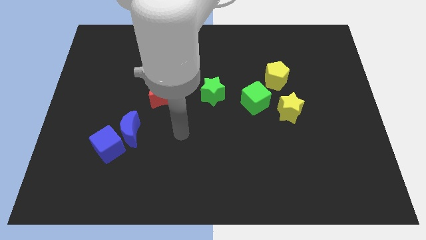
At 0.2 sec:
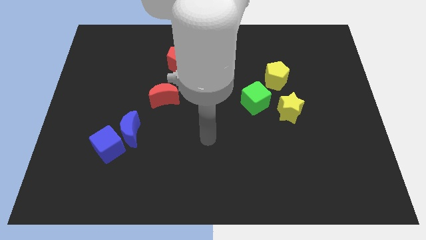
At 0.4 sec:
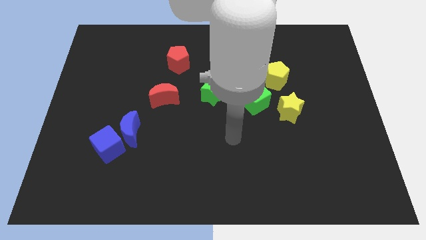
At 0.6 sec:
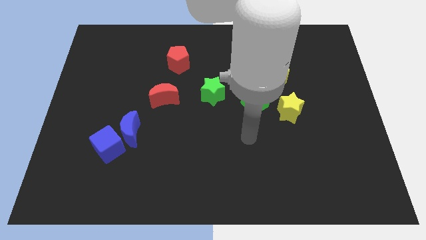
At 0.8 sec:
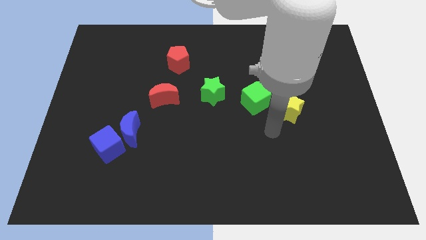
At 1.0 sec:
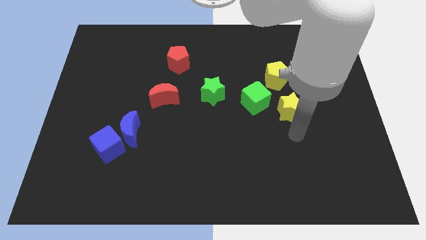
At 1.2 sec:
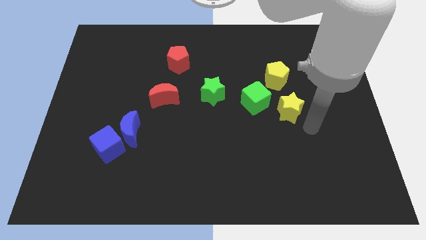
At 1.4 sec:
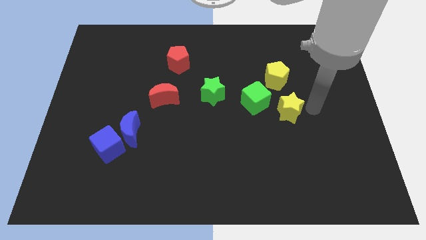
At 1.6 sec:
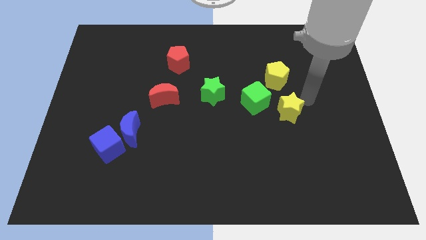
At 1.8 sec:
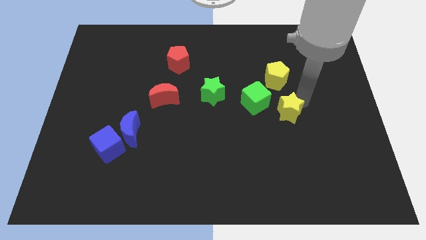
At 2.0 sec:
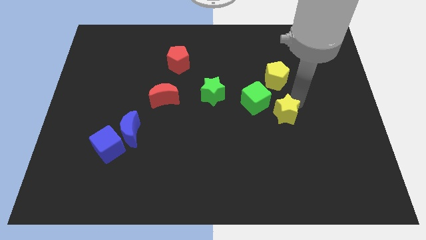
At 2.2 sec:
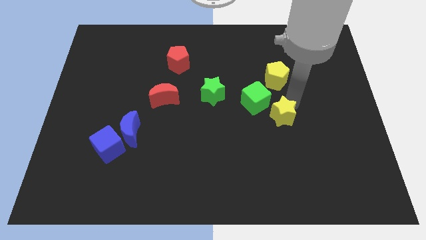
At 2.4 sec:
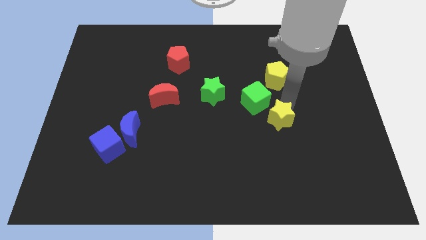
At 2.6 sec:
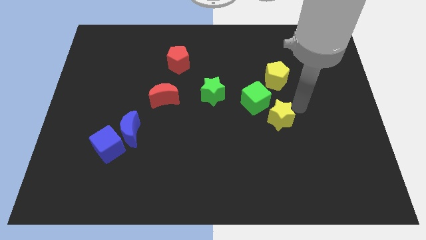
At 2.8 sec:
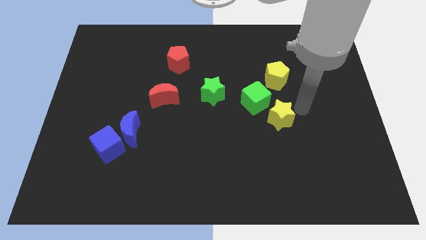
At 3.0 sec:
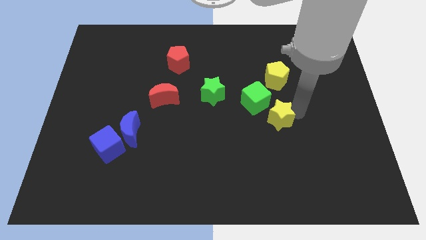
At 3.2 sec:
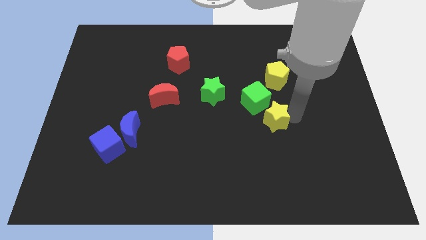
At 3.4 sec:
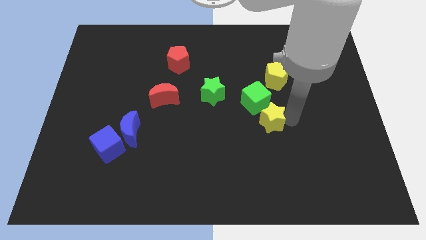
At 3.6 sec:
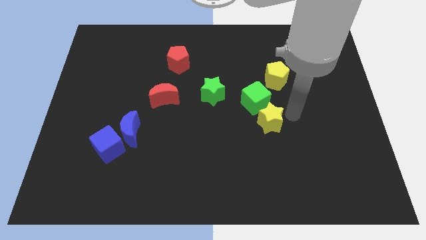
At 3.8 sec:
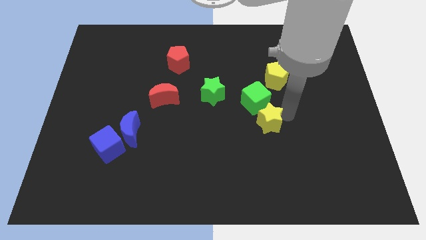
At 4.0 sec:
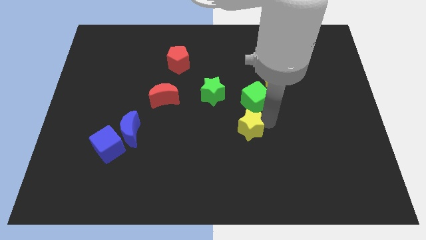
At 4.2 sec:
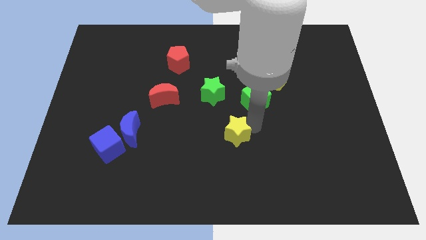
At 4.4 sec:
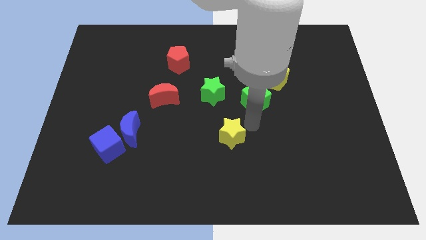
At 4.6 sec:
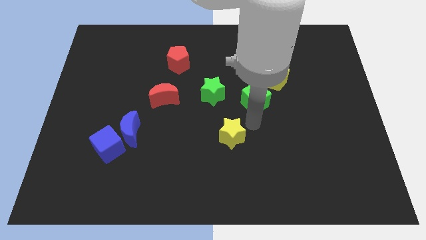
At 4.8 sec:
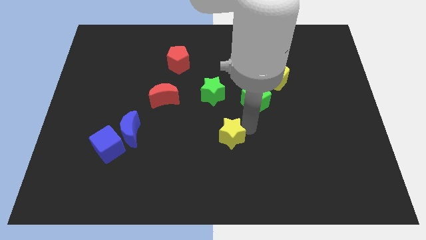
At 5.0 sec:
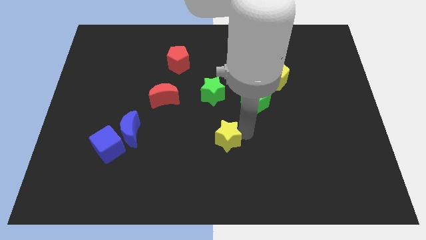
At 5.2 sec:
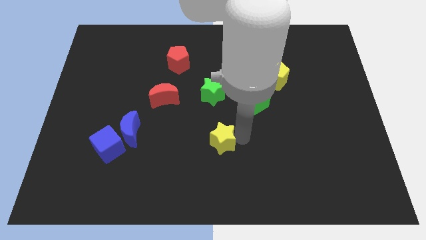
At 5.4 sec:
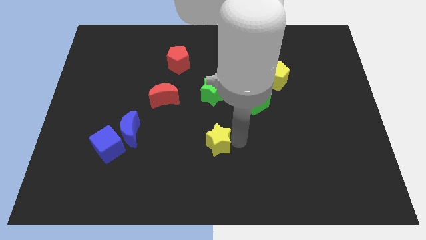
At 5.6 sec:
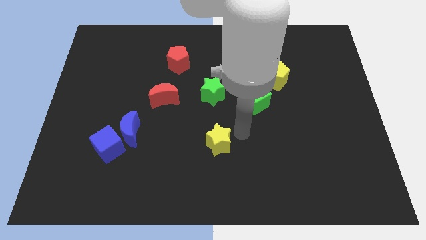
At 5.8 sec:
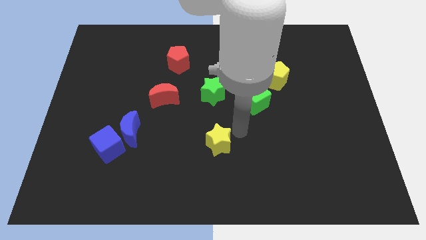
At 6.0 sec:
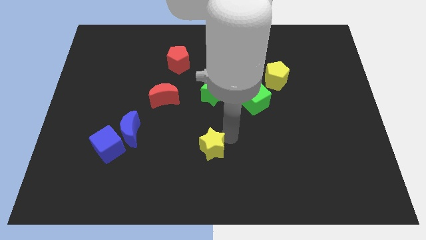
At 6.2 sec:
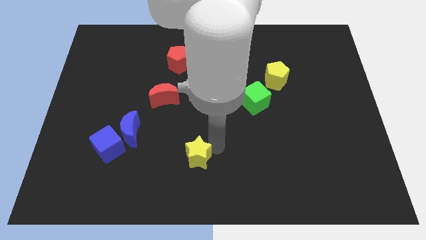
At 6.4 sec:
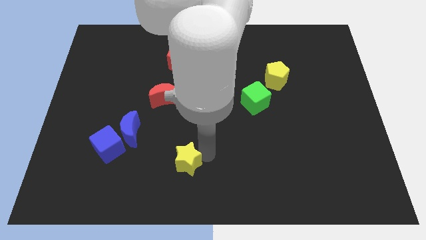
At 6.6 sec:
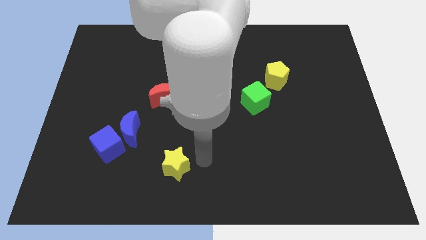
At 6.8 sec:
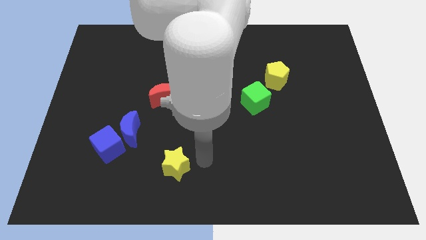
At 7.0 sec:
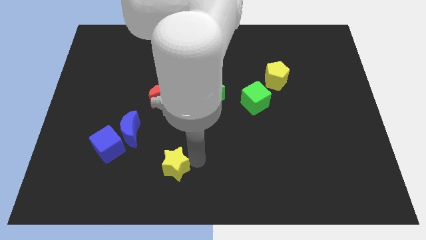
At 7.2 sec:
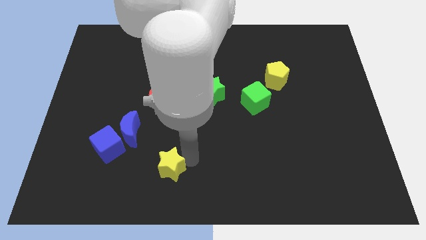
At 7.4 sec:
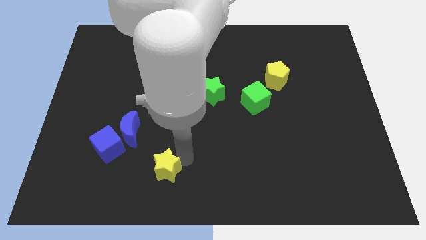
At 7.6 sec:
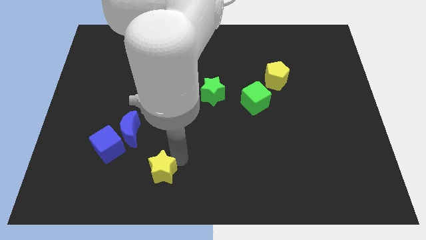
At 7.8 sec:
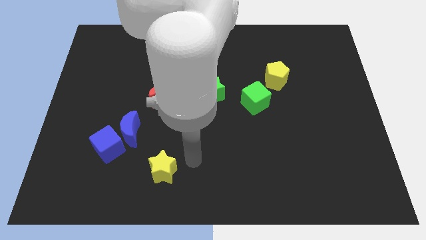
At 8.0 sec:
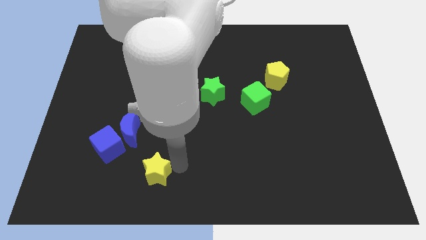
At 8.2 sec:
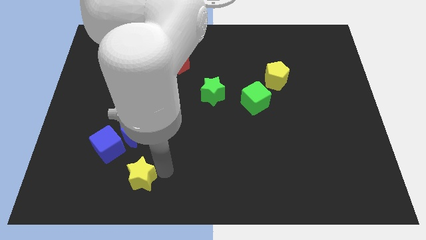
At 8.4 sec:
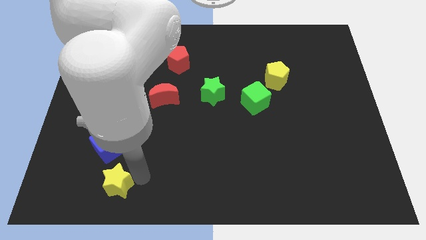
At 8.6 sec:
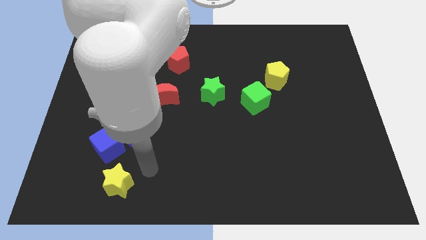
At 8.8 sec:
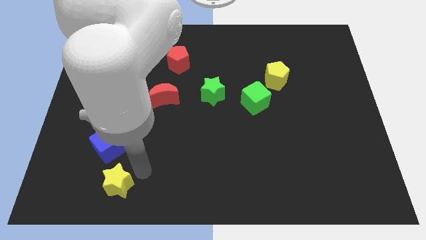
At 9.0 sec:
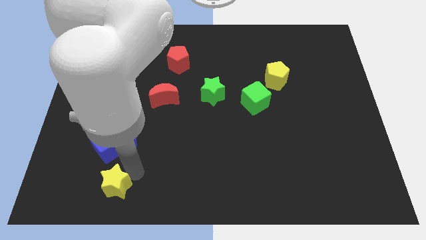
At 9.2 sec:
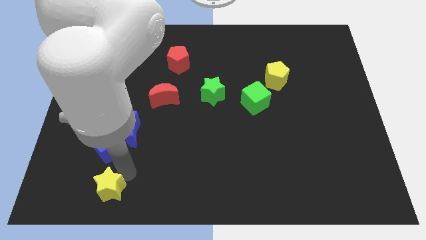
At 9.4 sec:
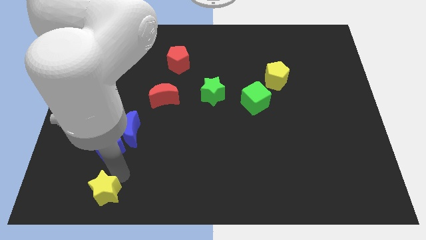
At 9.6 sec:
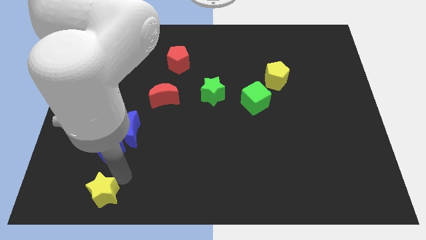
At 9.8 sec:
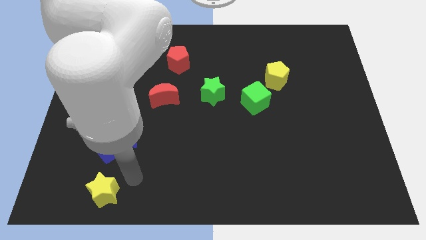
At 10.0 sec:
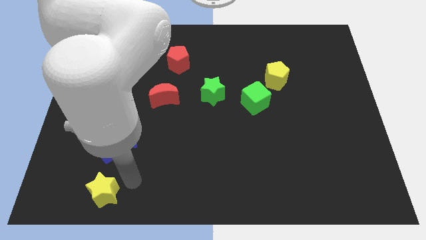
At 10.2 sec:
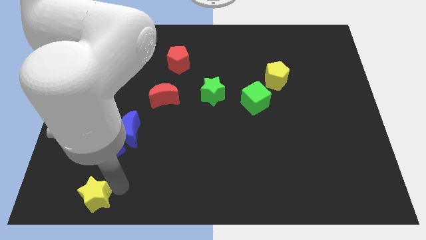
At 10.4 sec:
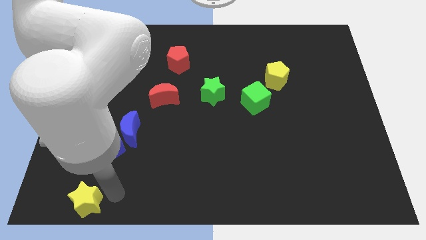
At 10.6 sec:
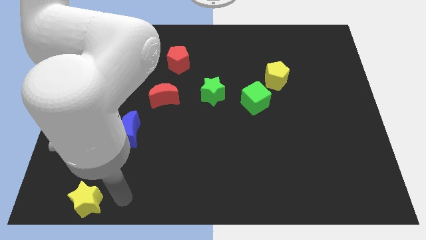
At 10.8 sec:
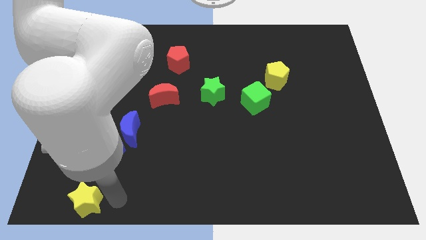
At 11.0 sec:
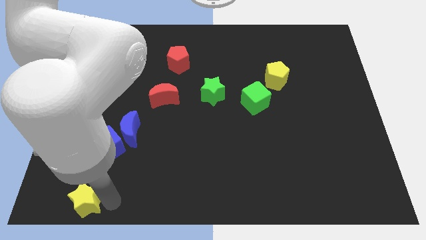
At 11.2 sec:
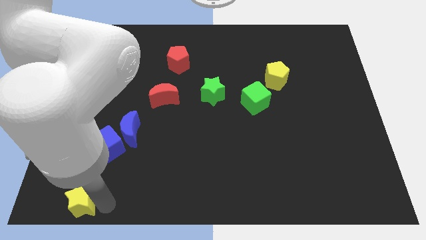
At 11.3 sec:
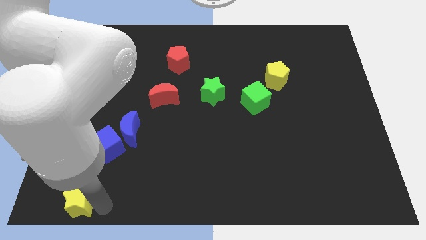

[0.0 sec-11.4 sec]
slide the yellow star to the lower left corner
